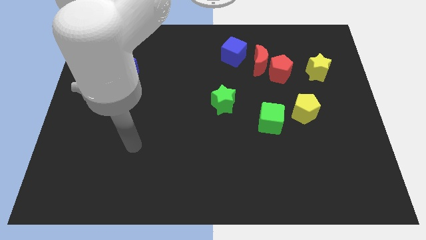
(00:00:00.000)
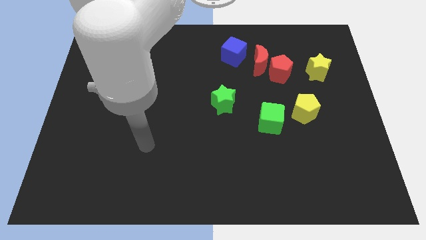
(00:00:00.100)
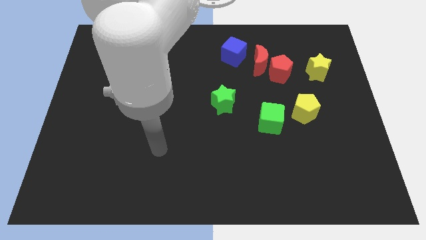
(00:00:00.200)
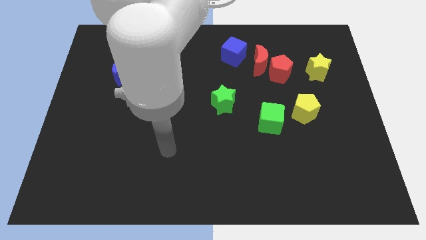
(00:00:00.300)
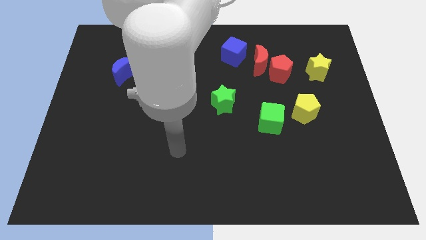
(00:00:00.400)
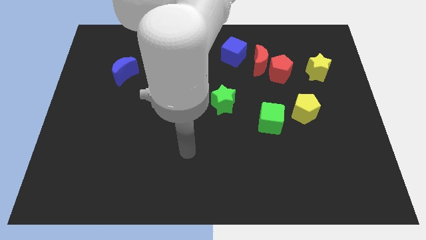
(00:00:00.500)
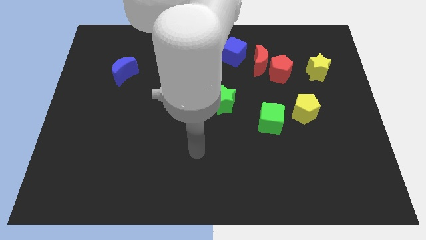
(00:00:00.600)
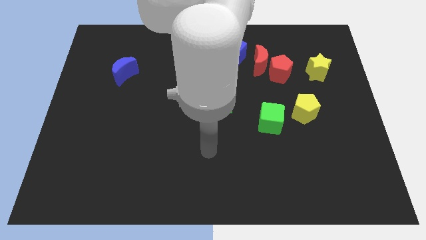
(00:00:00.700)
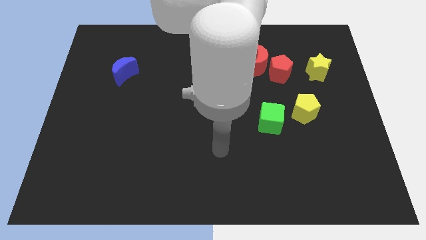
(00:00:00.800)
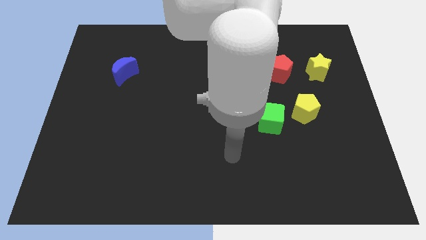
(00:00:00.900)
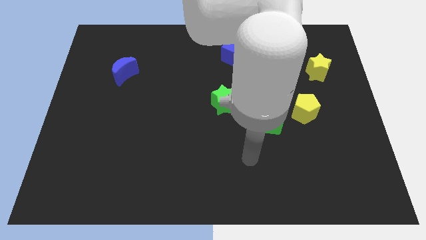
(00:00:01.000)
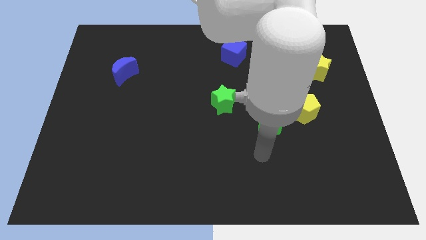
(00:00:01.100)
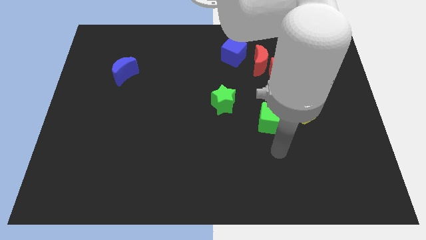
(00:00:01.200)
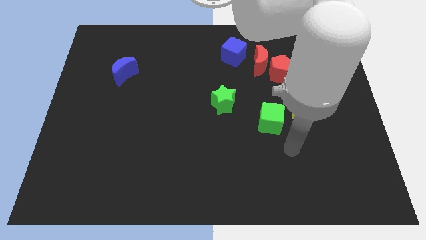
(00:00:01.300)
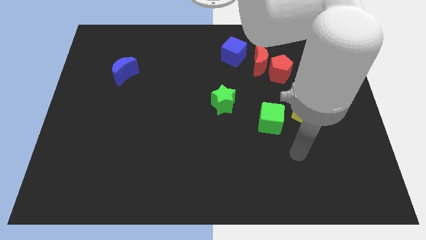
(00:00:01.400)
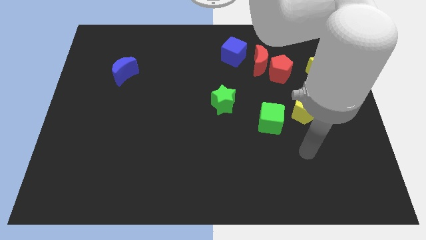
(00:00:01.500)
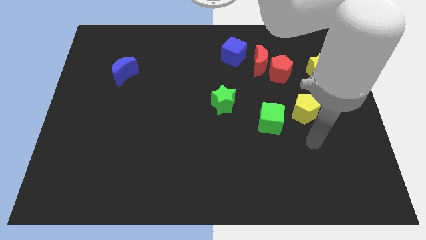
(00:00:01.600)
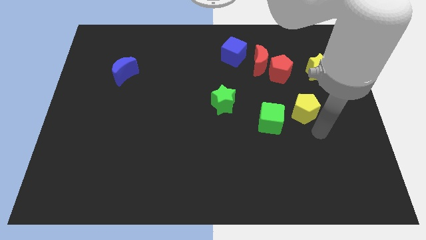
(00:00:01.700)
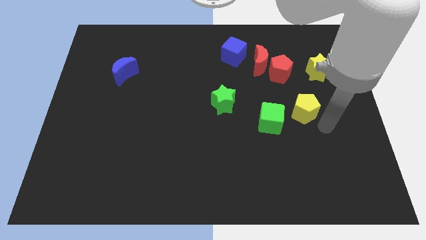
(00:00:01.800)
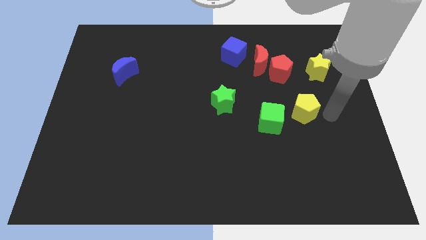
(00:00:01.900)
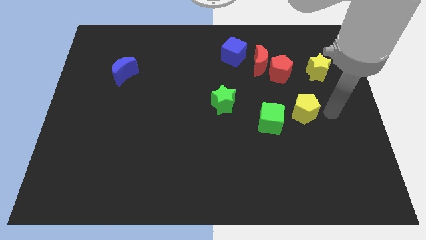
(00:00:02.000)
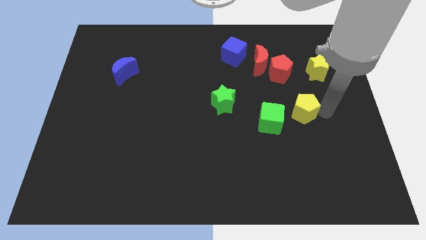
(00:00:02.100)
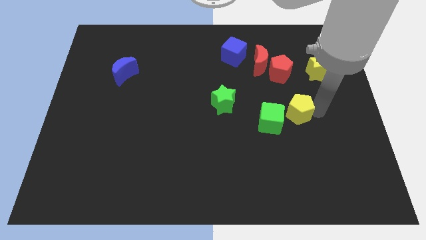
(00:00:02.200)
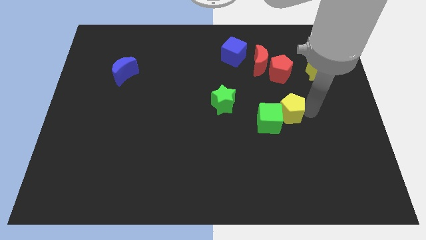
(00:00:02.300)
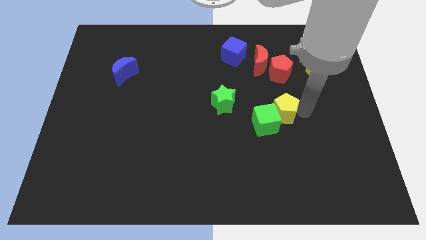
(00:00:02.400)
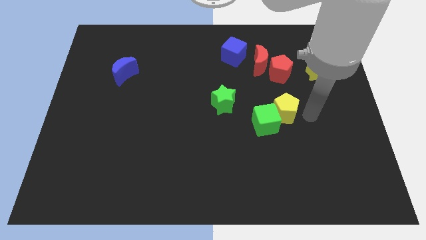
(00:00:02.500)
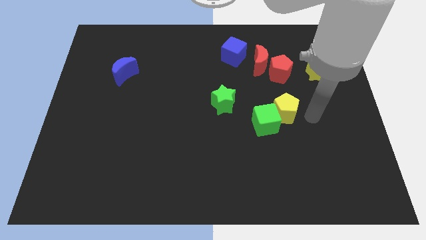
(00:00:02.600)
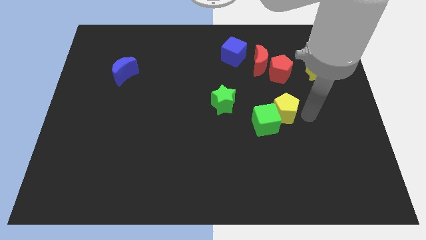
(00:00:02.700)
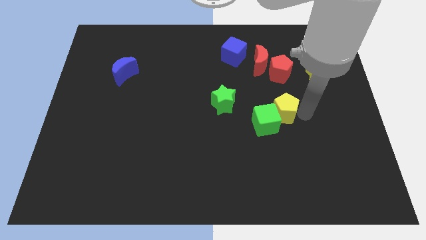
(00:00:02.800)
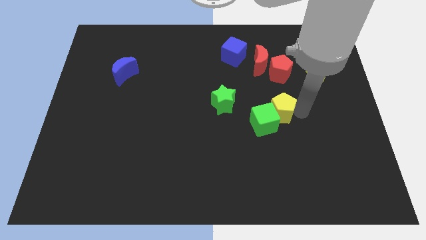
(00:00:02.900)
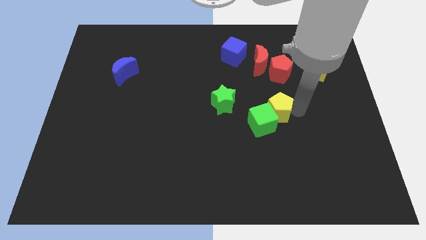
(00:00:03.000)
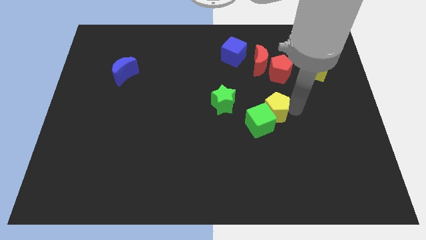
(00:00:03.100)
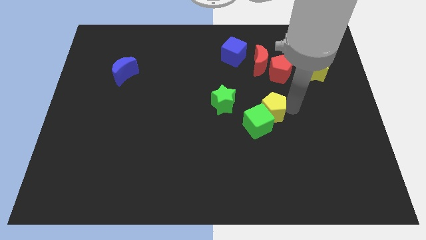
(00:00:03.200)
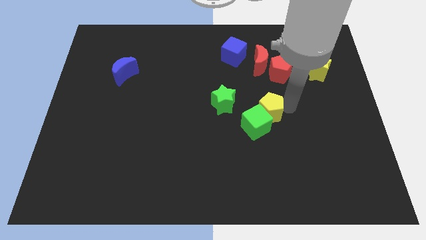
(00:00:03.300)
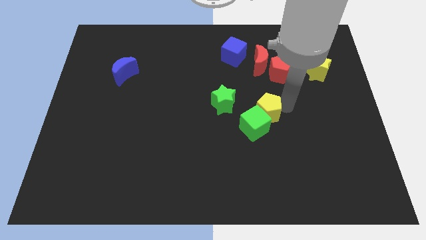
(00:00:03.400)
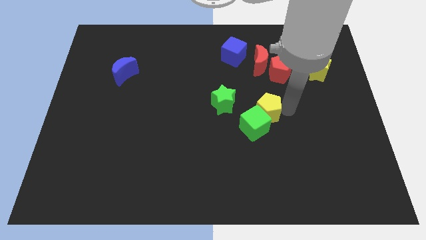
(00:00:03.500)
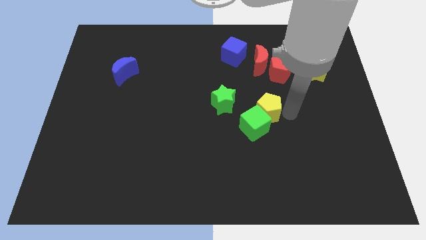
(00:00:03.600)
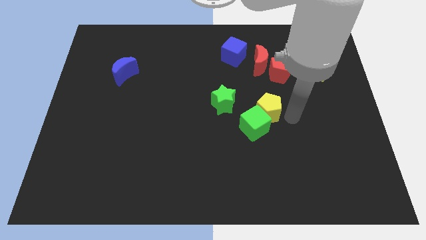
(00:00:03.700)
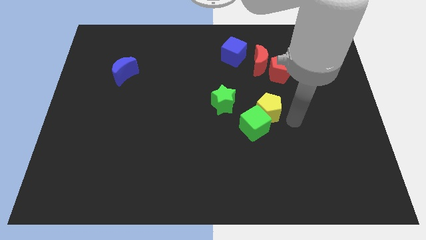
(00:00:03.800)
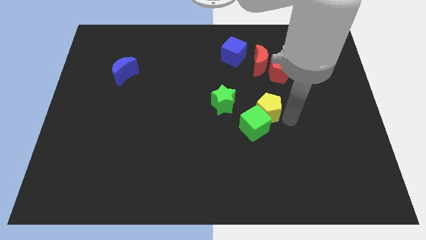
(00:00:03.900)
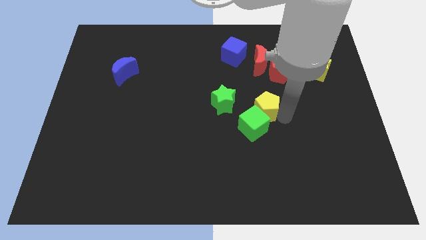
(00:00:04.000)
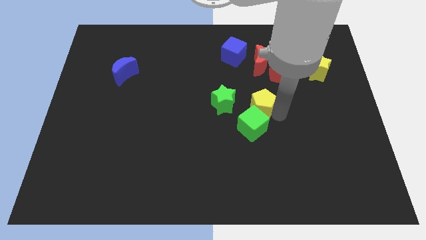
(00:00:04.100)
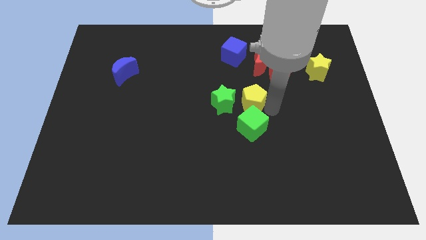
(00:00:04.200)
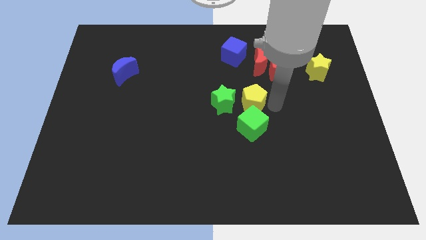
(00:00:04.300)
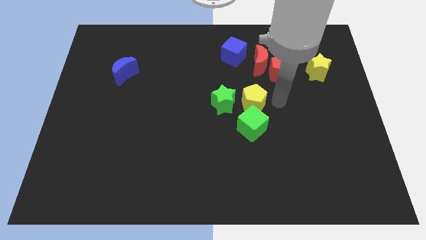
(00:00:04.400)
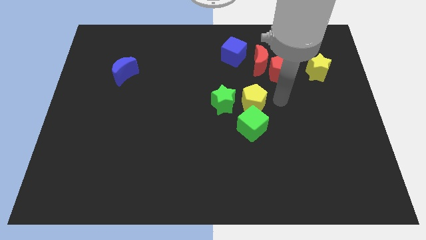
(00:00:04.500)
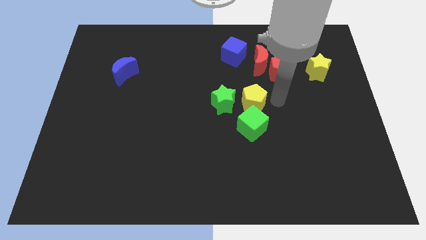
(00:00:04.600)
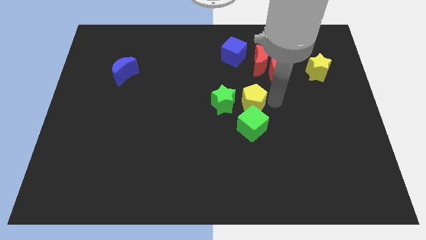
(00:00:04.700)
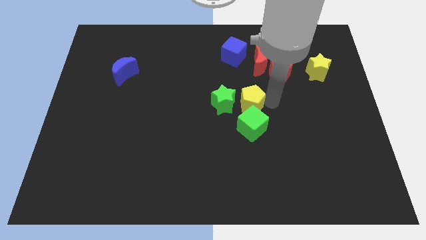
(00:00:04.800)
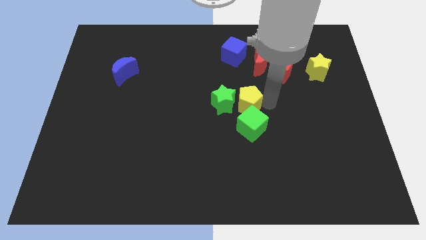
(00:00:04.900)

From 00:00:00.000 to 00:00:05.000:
put the yellow pentagon next to the green star

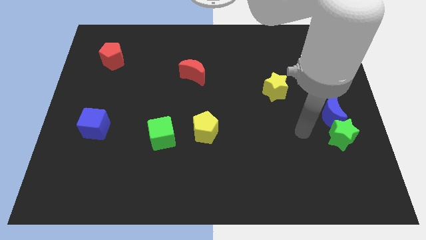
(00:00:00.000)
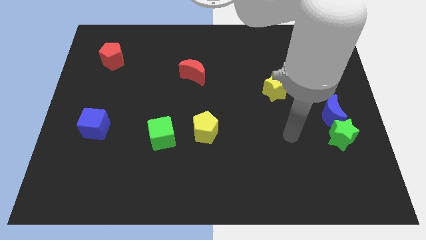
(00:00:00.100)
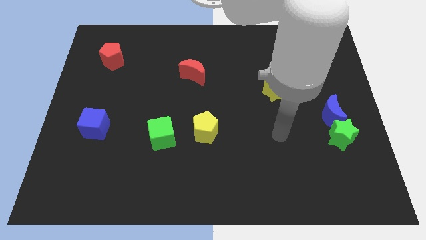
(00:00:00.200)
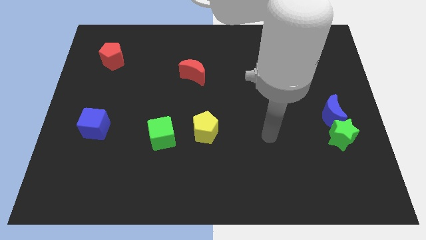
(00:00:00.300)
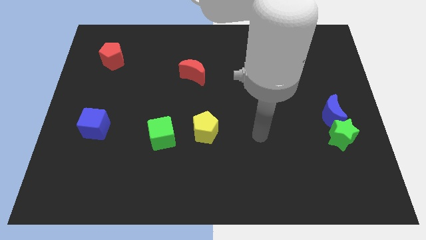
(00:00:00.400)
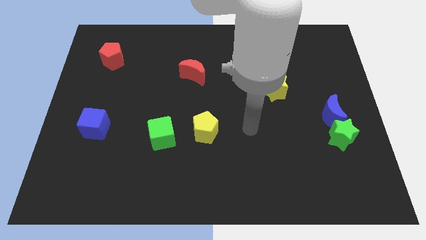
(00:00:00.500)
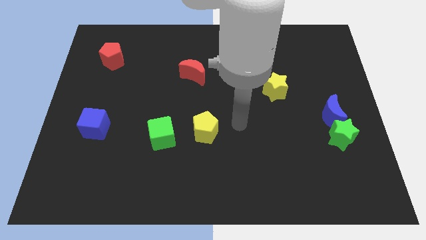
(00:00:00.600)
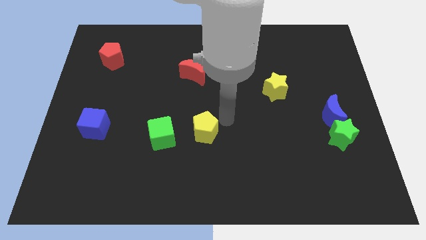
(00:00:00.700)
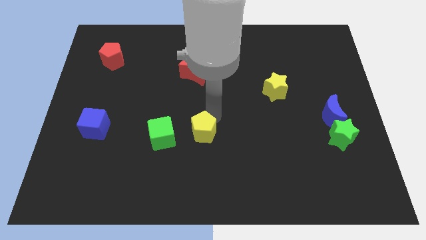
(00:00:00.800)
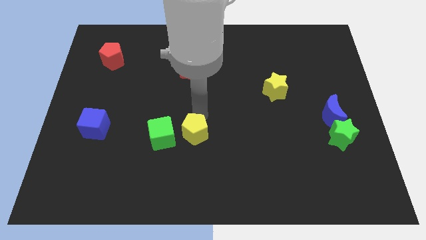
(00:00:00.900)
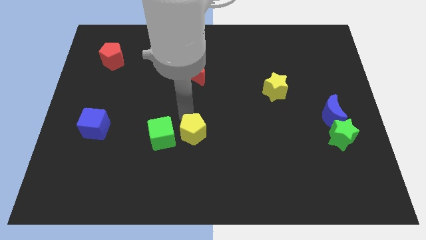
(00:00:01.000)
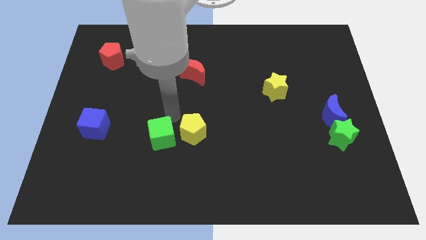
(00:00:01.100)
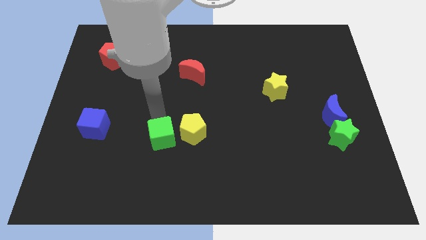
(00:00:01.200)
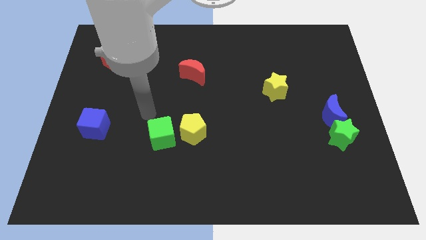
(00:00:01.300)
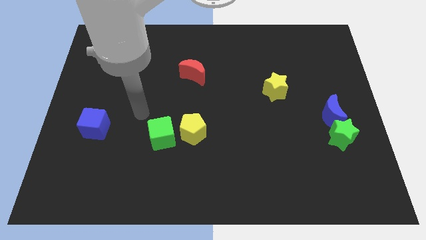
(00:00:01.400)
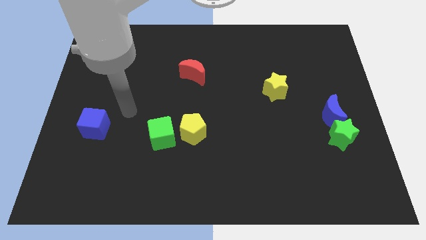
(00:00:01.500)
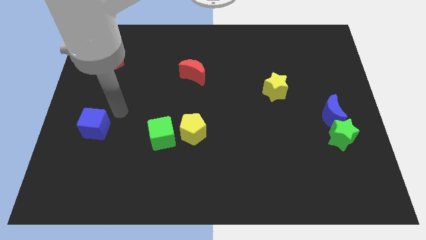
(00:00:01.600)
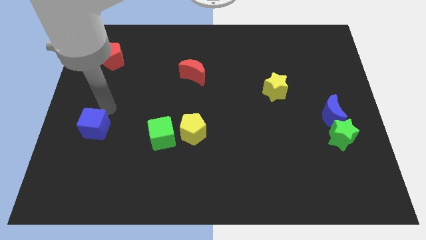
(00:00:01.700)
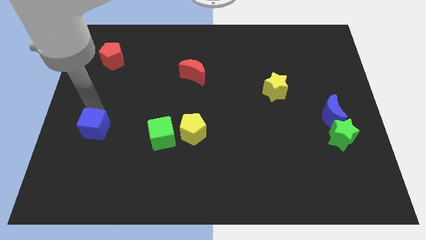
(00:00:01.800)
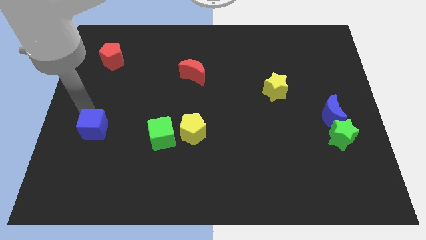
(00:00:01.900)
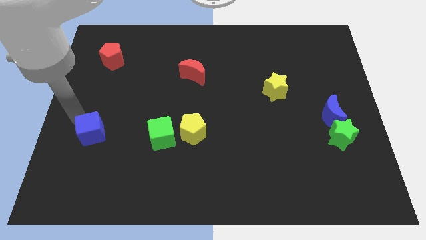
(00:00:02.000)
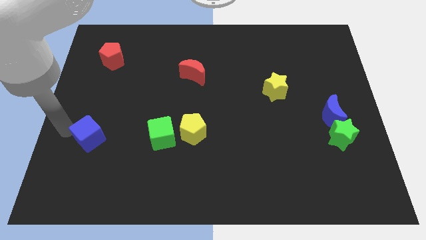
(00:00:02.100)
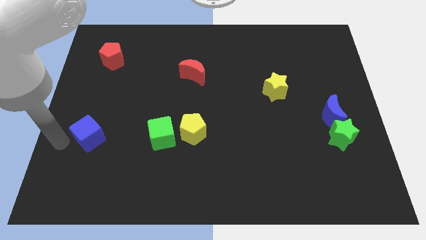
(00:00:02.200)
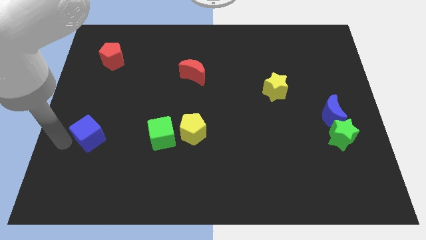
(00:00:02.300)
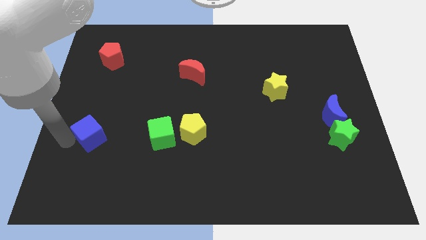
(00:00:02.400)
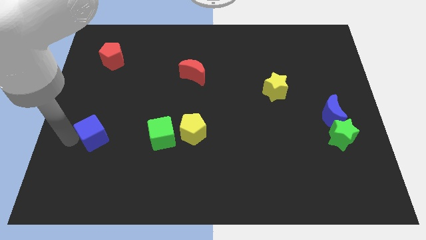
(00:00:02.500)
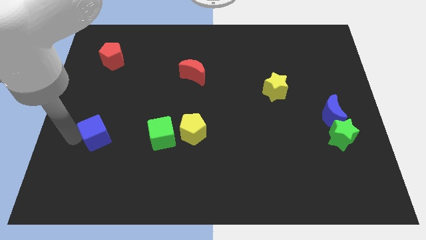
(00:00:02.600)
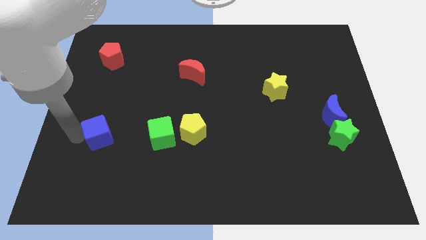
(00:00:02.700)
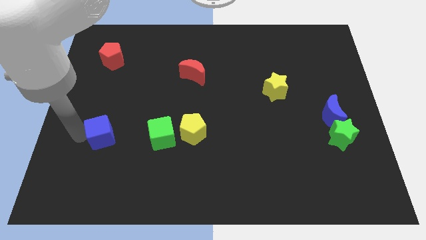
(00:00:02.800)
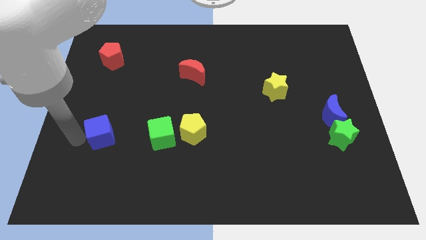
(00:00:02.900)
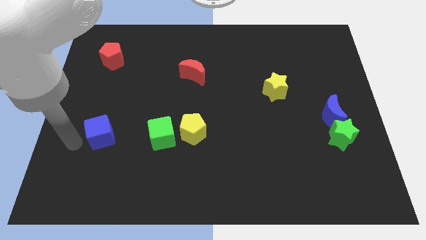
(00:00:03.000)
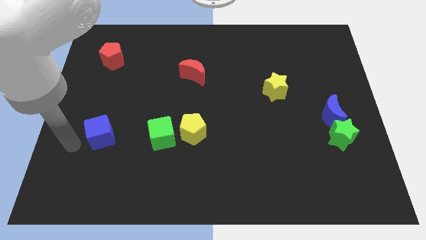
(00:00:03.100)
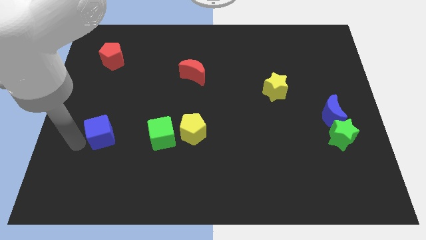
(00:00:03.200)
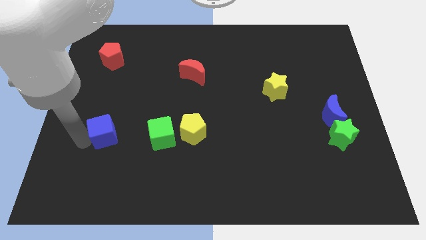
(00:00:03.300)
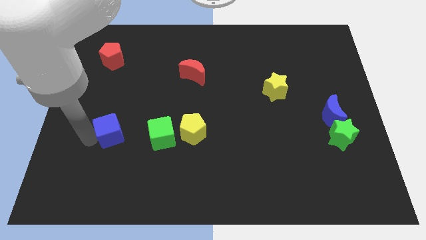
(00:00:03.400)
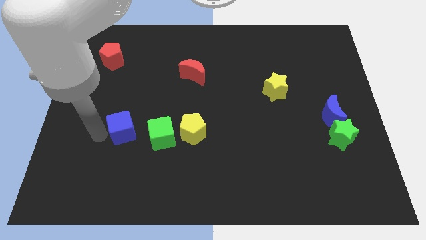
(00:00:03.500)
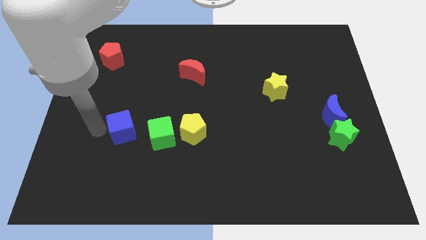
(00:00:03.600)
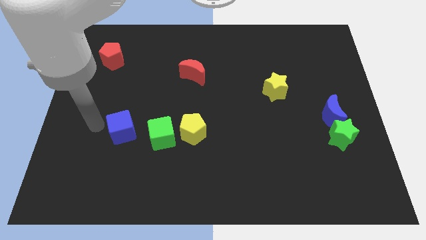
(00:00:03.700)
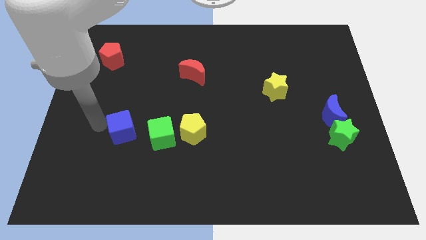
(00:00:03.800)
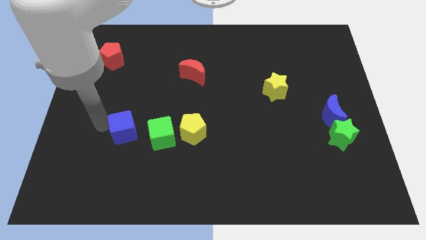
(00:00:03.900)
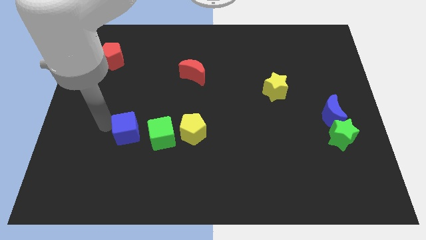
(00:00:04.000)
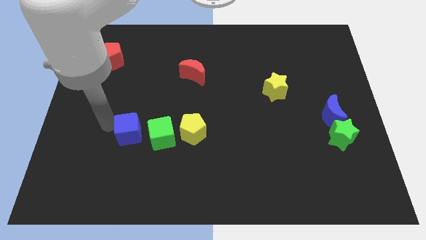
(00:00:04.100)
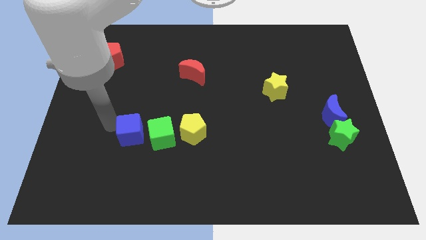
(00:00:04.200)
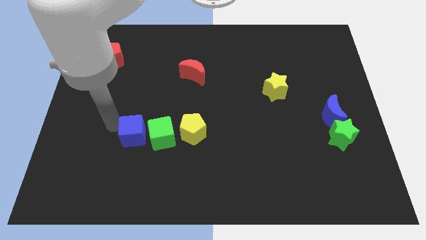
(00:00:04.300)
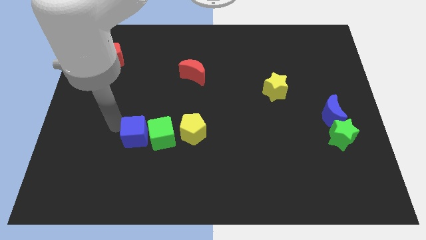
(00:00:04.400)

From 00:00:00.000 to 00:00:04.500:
move the blue cube close to the green cube
